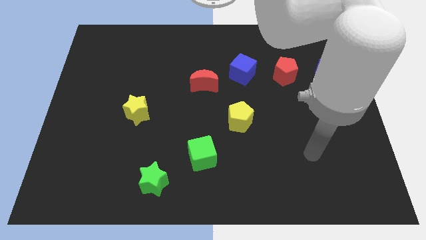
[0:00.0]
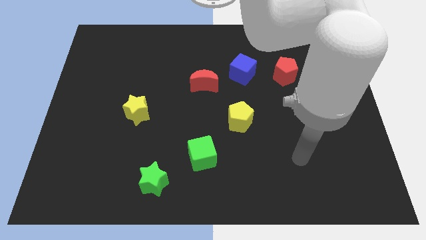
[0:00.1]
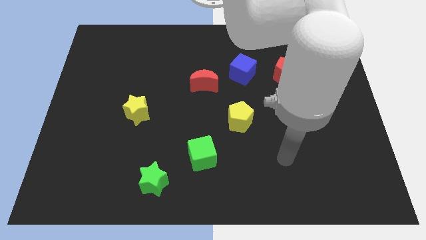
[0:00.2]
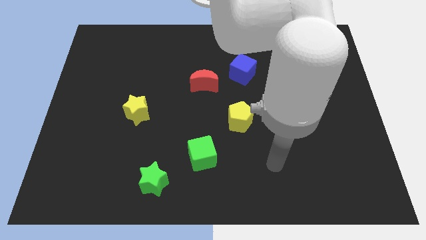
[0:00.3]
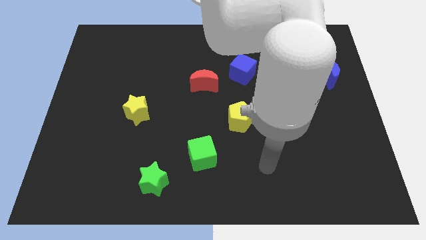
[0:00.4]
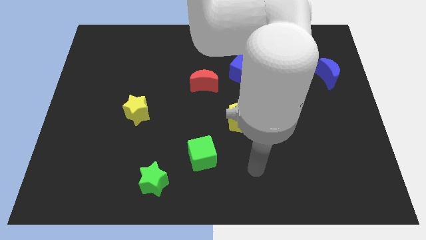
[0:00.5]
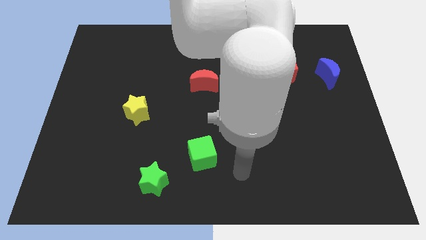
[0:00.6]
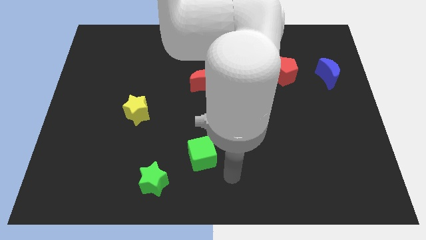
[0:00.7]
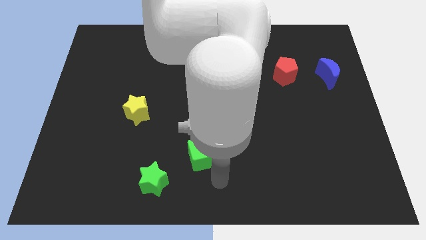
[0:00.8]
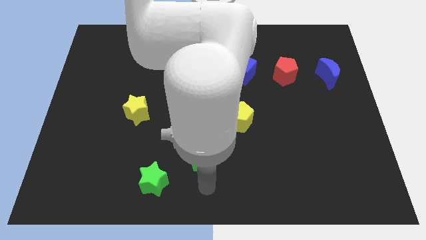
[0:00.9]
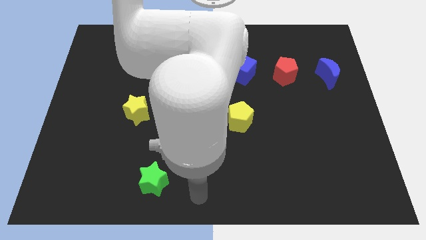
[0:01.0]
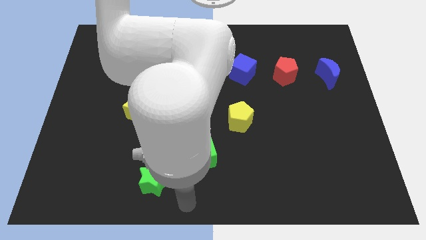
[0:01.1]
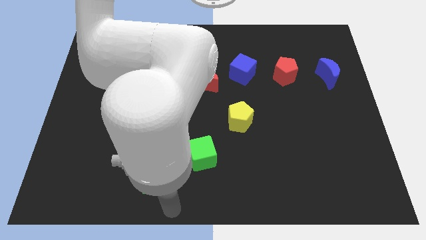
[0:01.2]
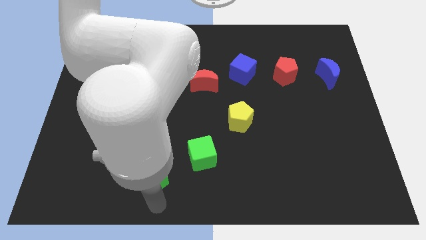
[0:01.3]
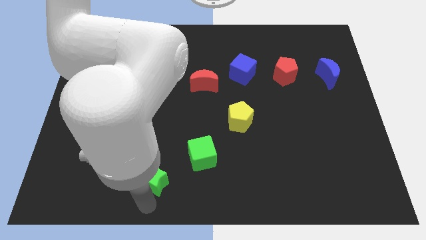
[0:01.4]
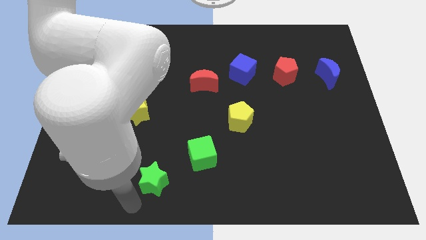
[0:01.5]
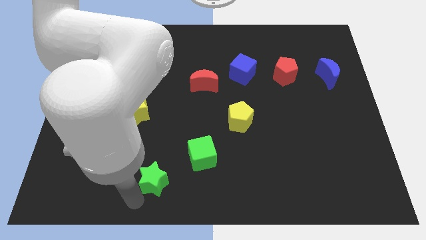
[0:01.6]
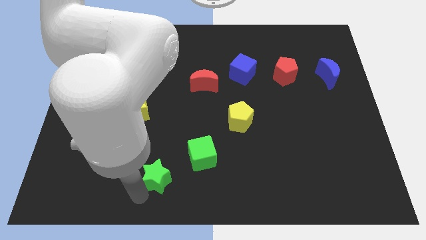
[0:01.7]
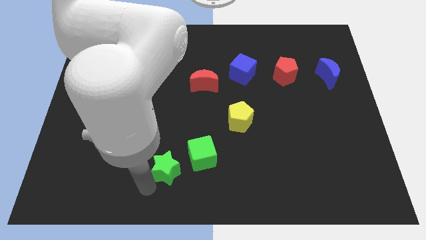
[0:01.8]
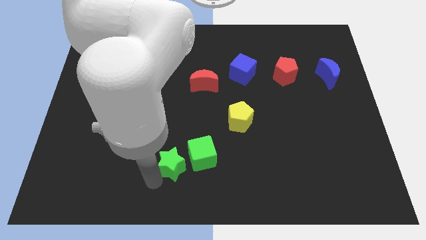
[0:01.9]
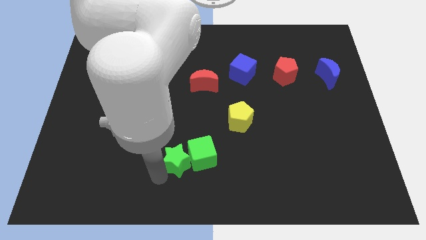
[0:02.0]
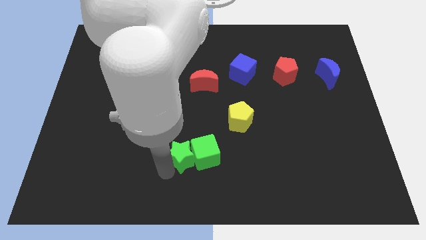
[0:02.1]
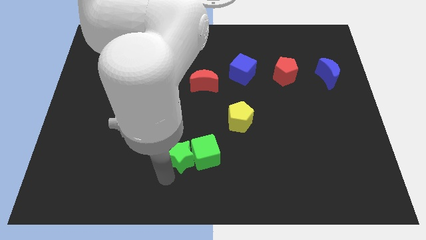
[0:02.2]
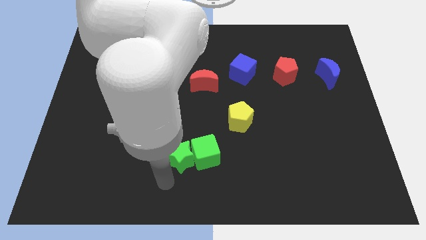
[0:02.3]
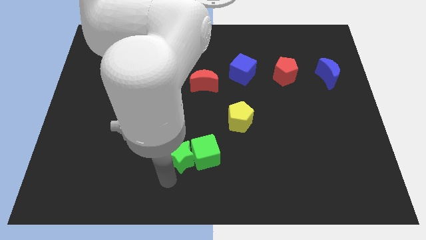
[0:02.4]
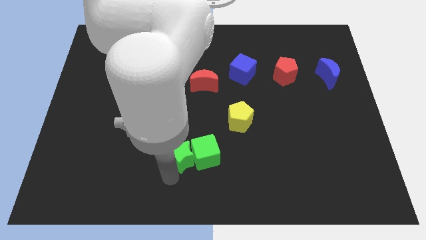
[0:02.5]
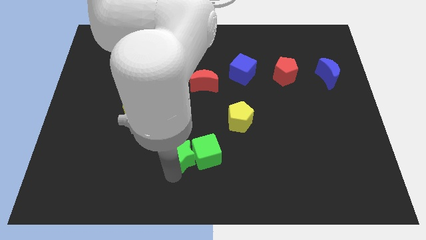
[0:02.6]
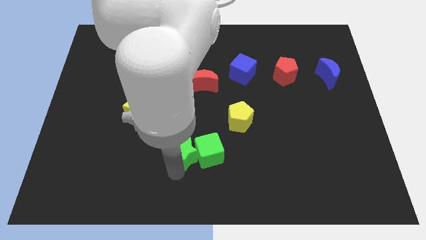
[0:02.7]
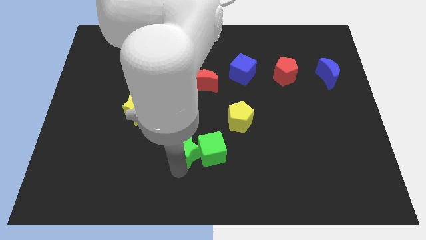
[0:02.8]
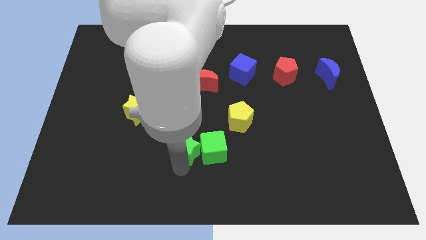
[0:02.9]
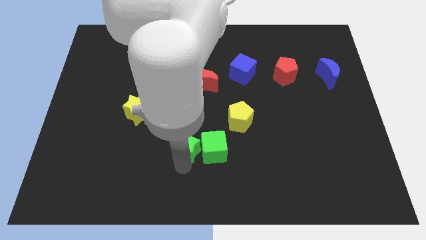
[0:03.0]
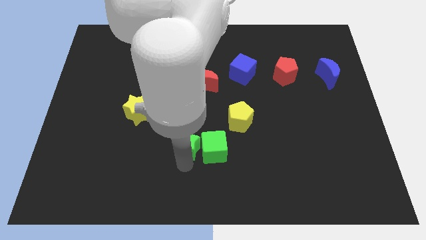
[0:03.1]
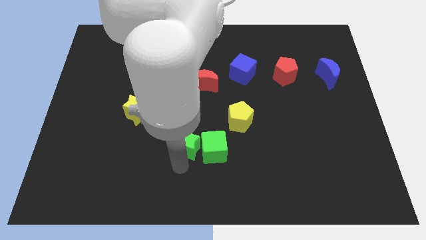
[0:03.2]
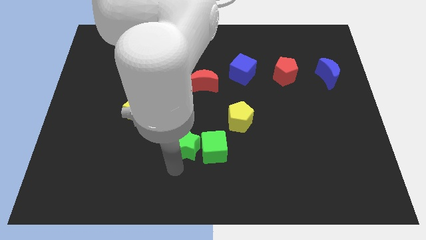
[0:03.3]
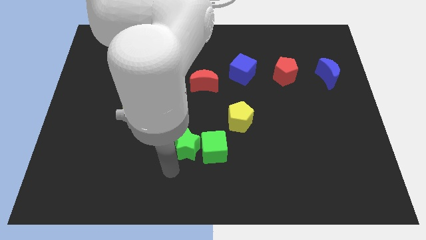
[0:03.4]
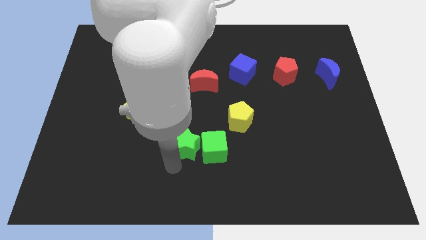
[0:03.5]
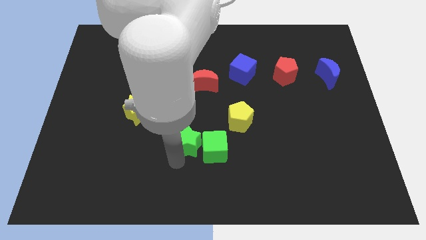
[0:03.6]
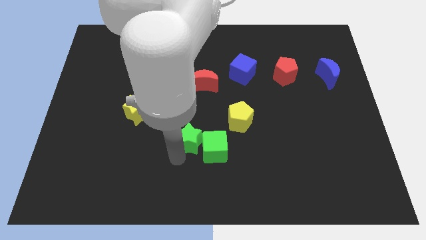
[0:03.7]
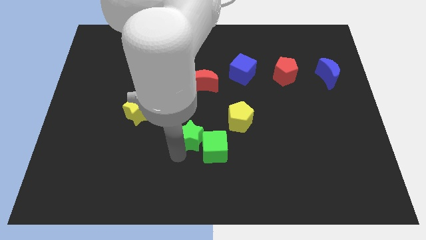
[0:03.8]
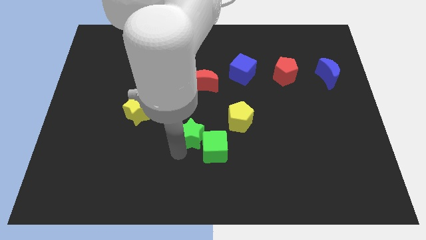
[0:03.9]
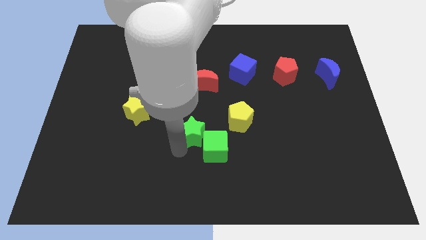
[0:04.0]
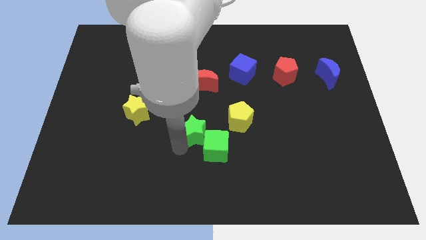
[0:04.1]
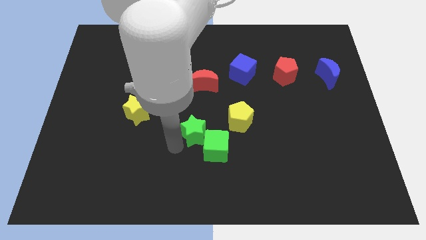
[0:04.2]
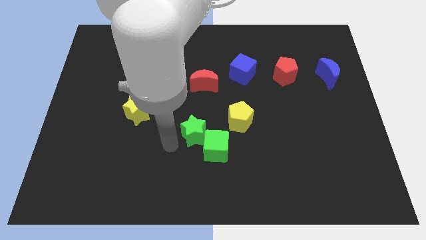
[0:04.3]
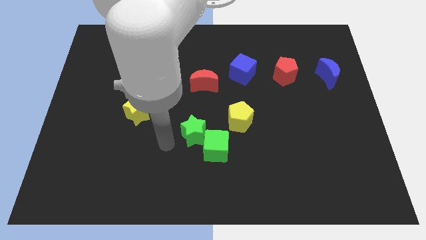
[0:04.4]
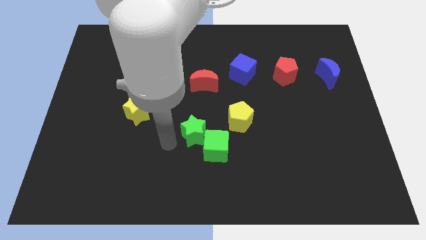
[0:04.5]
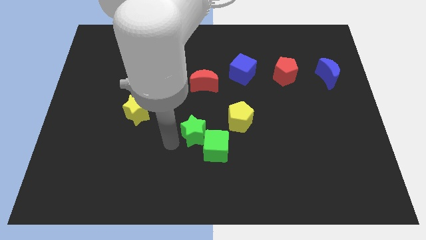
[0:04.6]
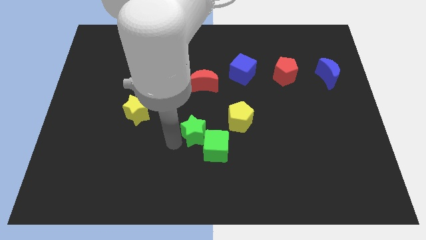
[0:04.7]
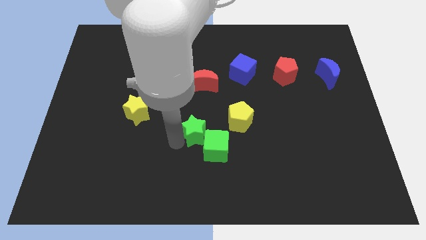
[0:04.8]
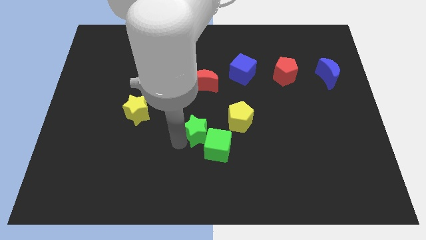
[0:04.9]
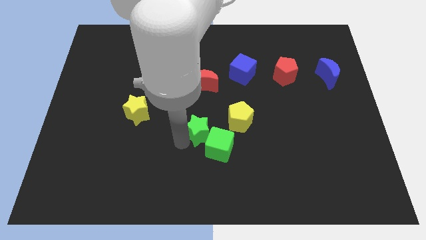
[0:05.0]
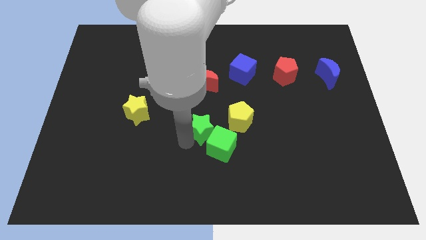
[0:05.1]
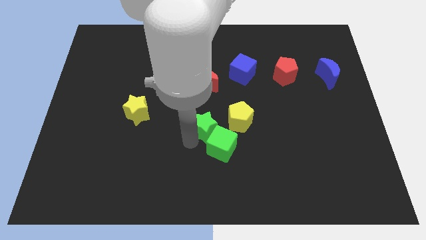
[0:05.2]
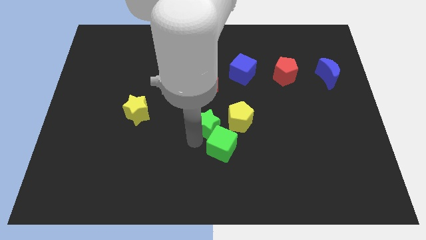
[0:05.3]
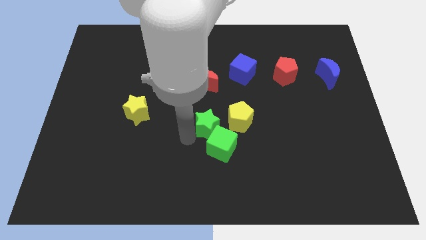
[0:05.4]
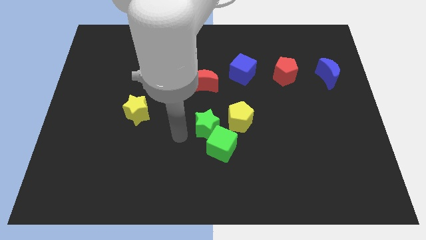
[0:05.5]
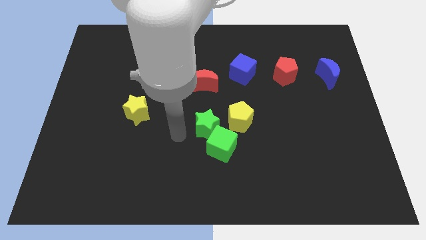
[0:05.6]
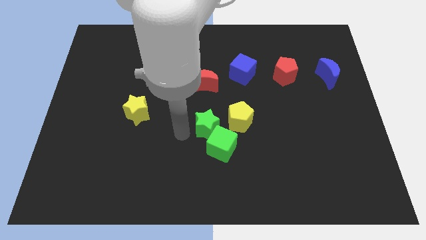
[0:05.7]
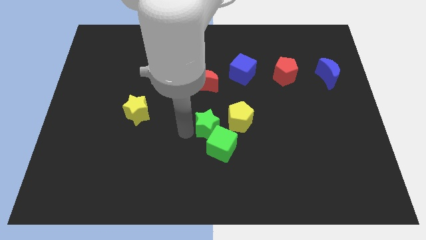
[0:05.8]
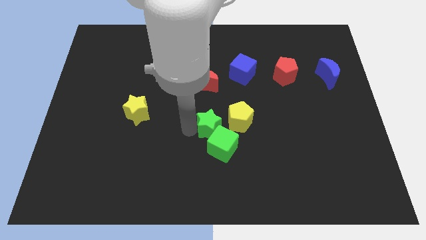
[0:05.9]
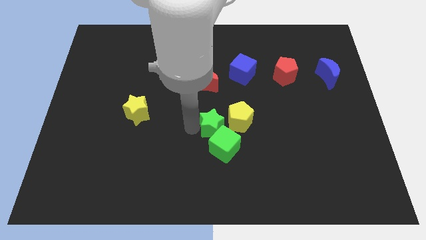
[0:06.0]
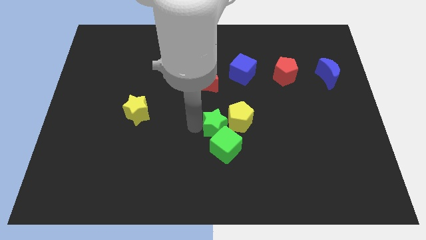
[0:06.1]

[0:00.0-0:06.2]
move the green star to the yellow pentagon
